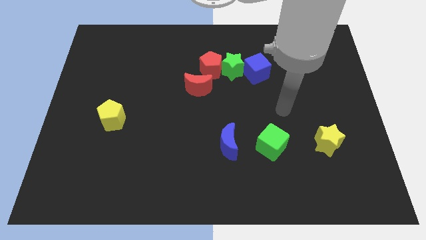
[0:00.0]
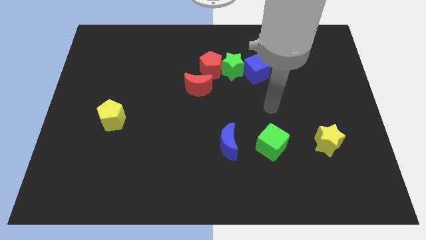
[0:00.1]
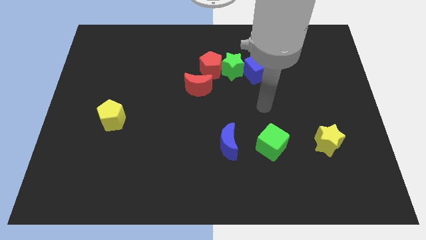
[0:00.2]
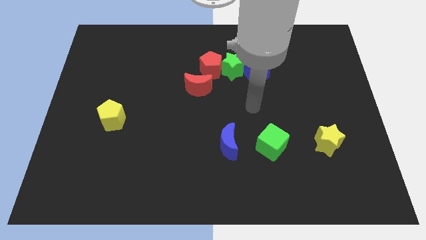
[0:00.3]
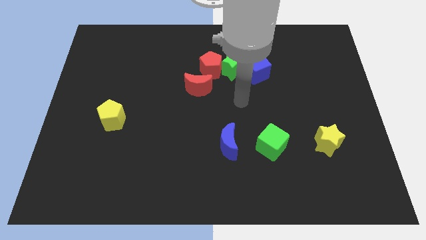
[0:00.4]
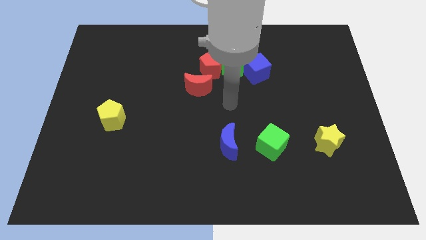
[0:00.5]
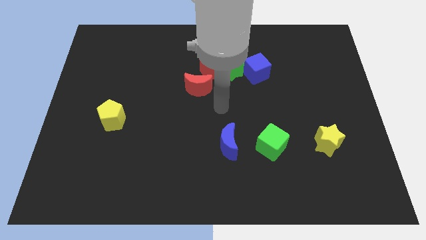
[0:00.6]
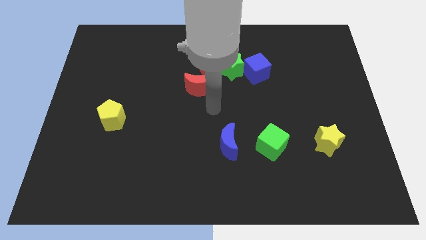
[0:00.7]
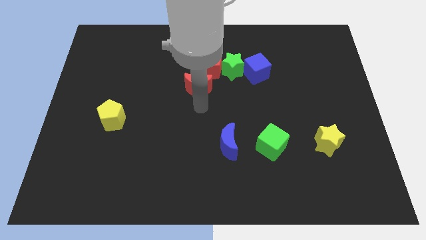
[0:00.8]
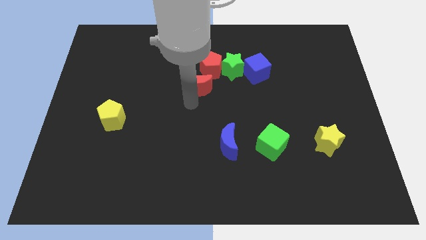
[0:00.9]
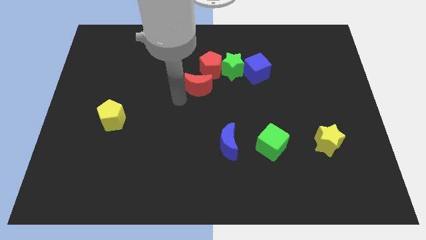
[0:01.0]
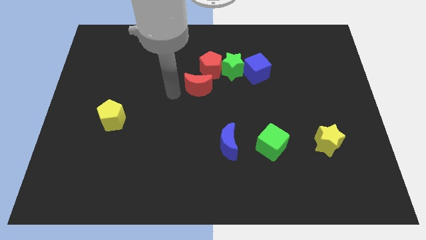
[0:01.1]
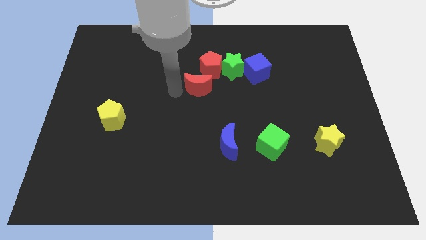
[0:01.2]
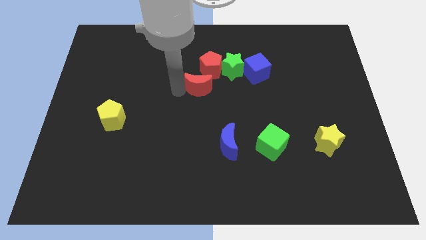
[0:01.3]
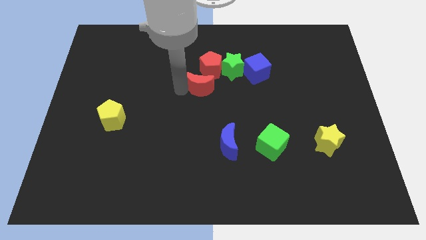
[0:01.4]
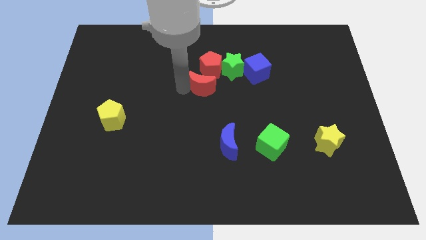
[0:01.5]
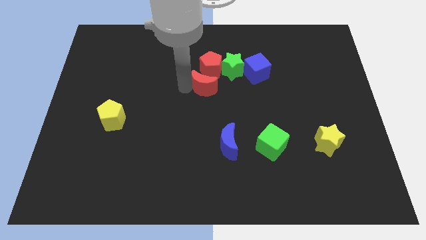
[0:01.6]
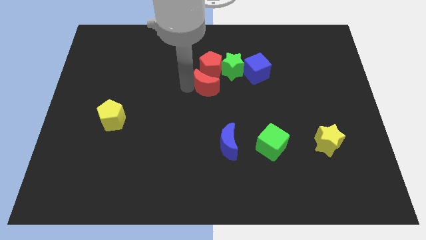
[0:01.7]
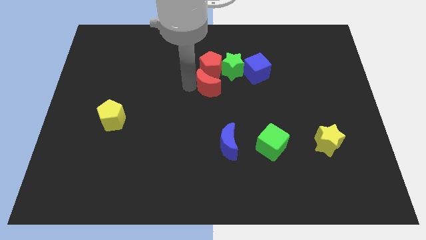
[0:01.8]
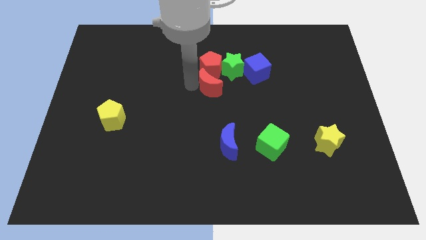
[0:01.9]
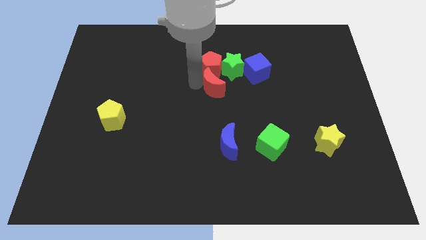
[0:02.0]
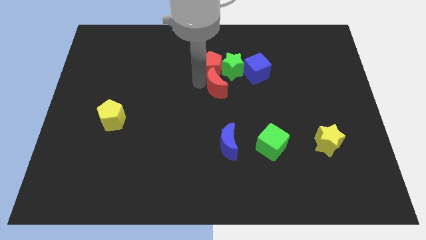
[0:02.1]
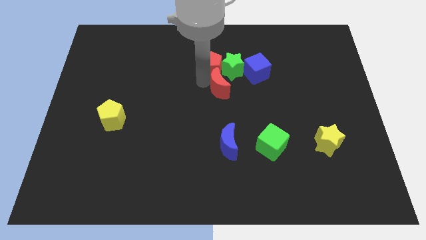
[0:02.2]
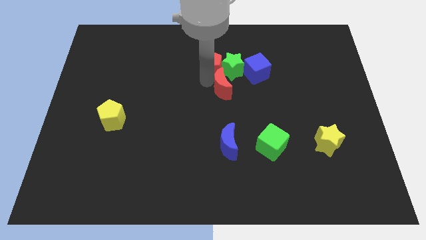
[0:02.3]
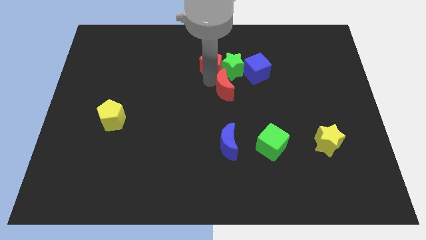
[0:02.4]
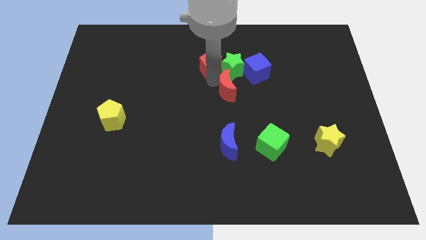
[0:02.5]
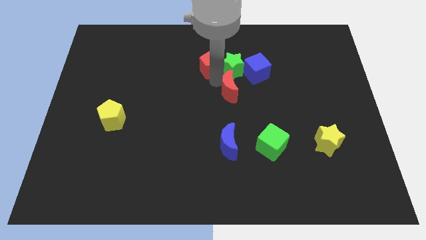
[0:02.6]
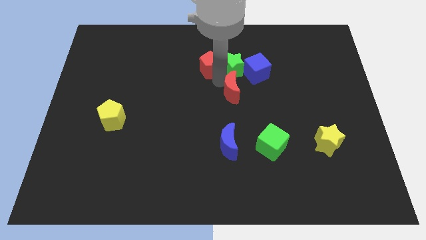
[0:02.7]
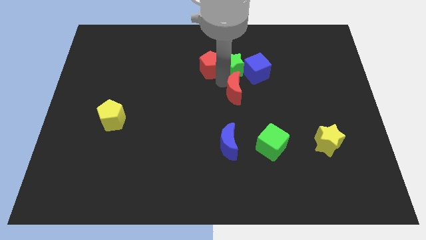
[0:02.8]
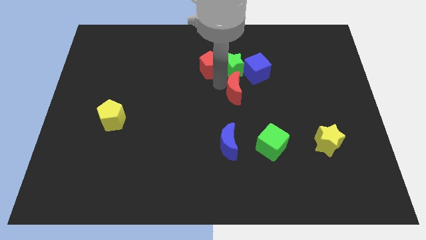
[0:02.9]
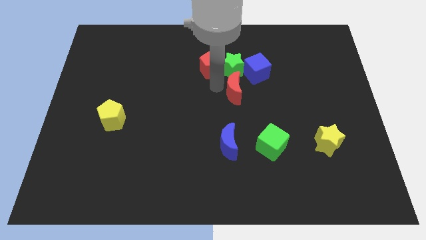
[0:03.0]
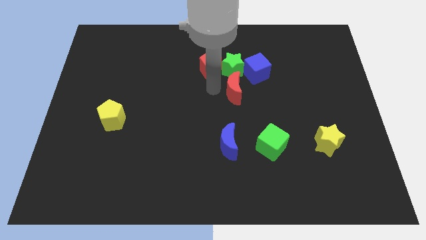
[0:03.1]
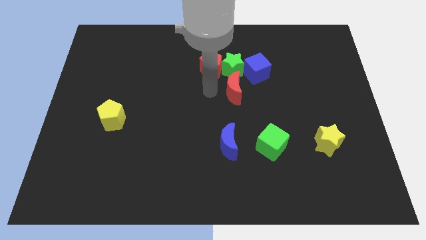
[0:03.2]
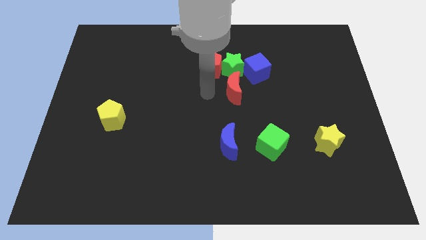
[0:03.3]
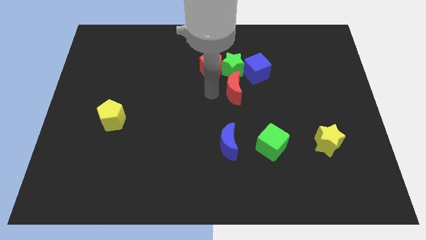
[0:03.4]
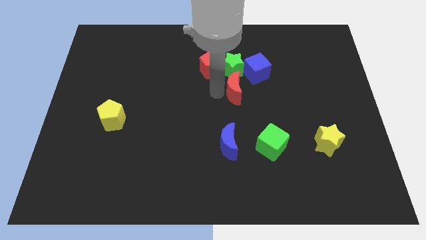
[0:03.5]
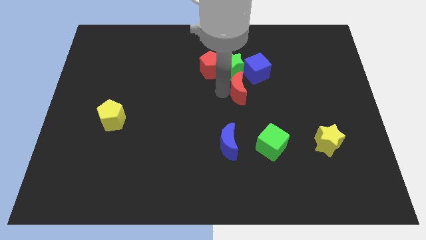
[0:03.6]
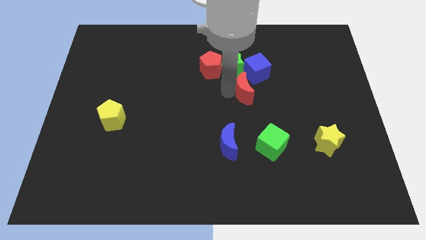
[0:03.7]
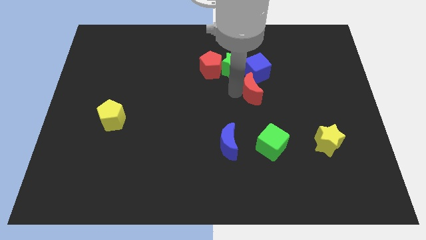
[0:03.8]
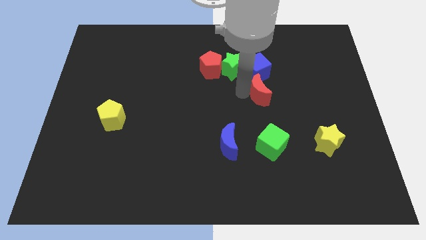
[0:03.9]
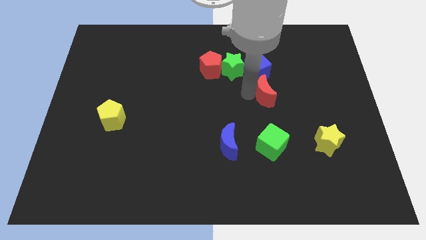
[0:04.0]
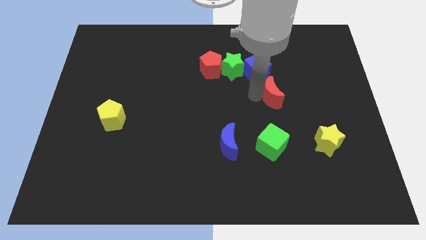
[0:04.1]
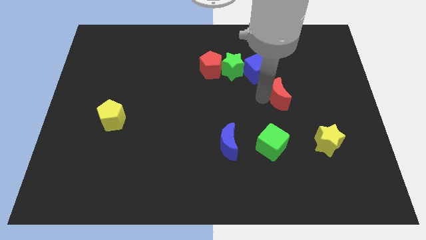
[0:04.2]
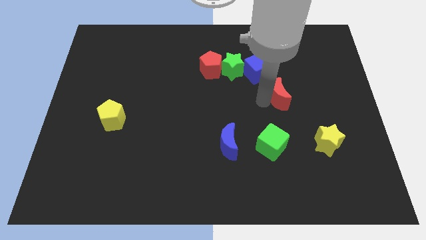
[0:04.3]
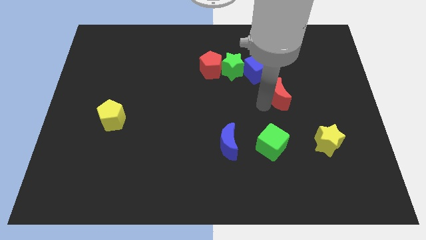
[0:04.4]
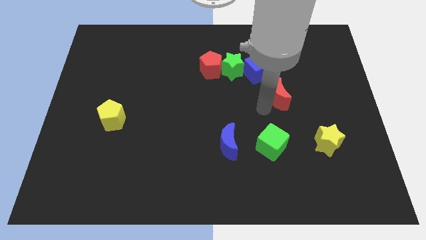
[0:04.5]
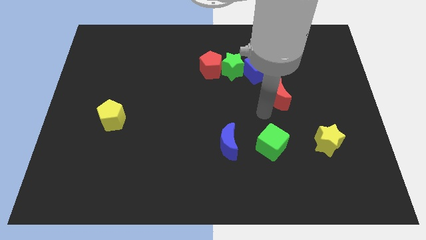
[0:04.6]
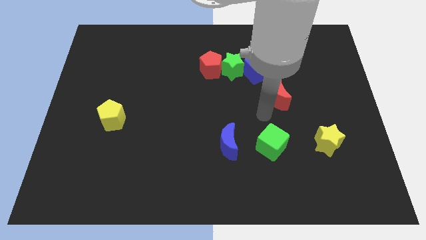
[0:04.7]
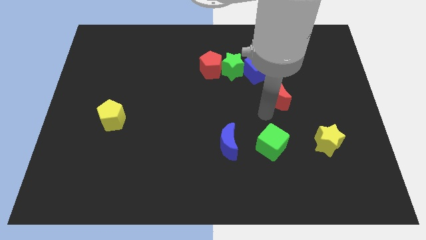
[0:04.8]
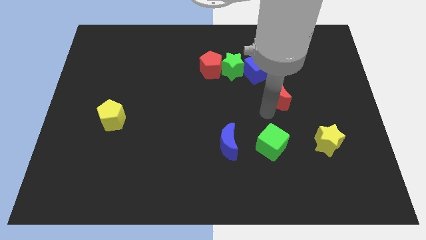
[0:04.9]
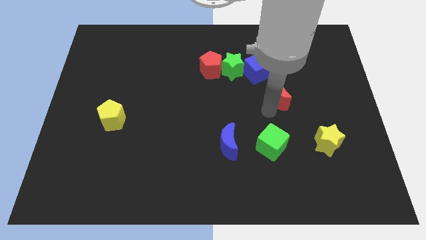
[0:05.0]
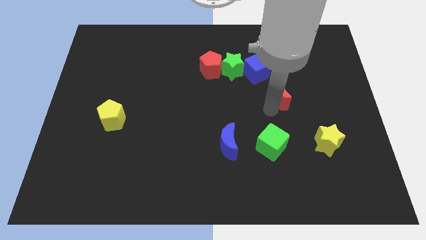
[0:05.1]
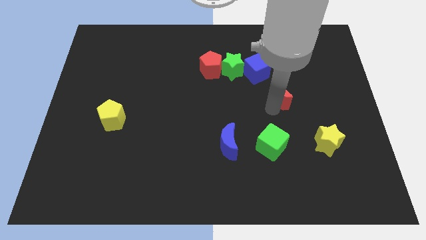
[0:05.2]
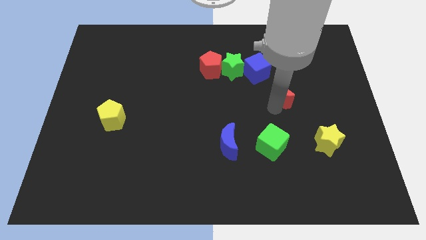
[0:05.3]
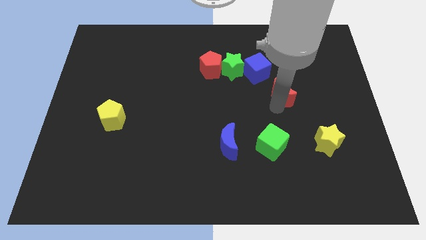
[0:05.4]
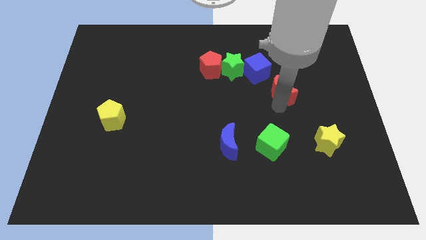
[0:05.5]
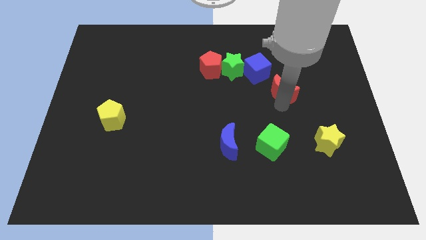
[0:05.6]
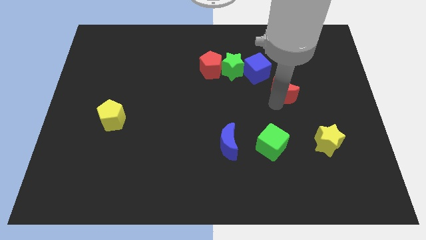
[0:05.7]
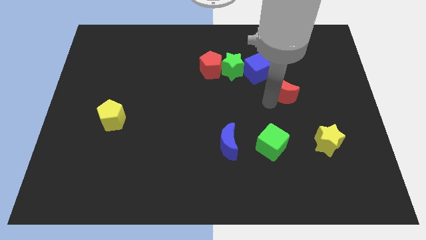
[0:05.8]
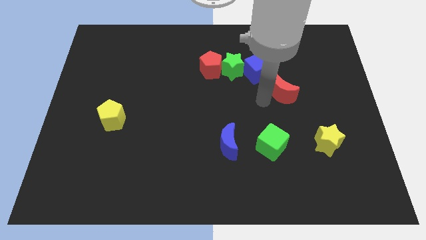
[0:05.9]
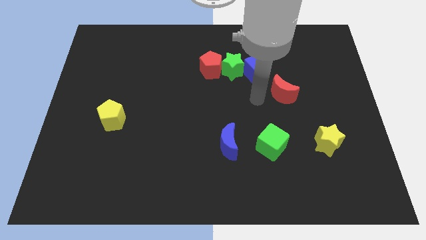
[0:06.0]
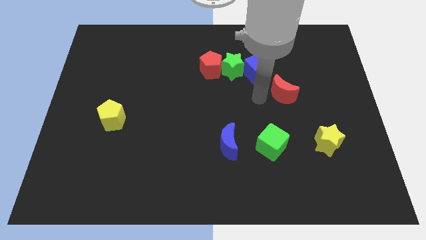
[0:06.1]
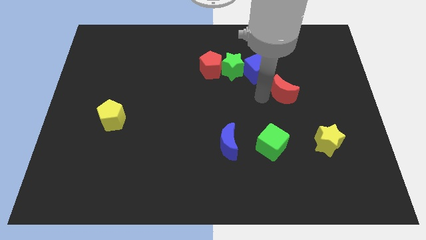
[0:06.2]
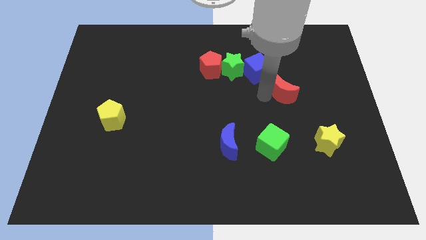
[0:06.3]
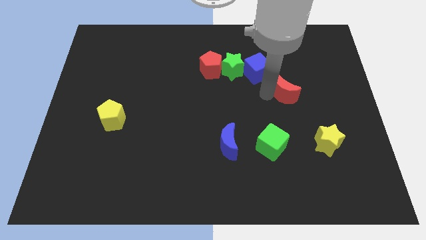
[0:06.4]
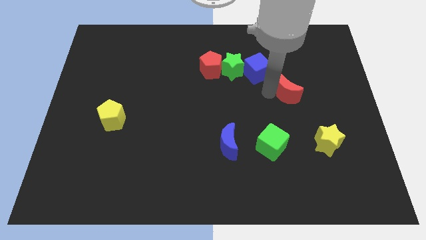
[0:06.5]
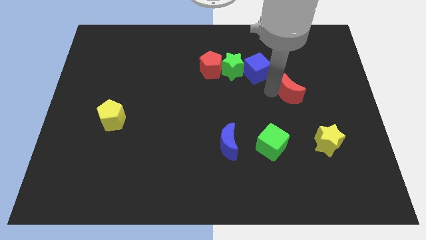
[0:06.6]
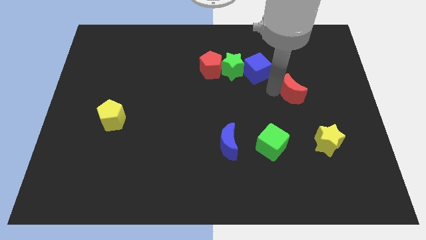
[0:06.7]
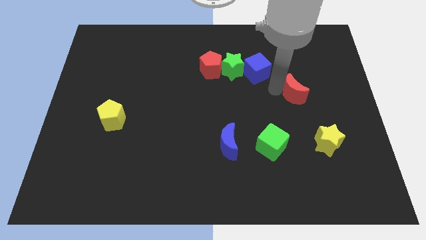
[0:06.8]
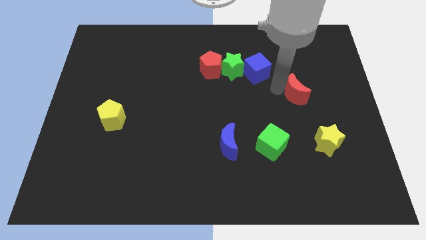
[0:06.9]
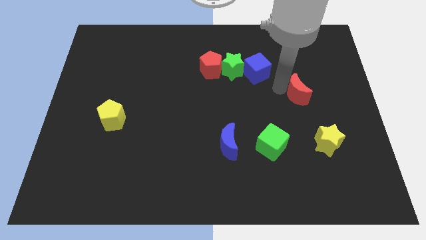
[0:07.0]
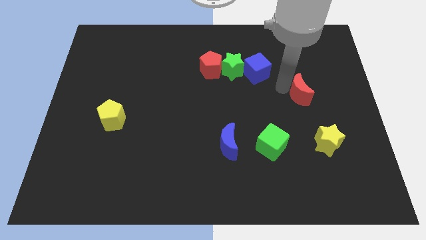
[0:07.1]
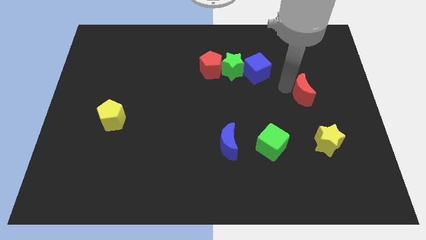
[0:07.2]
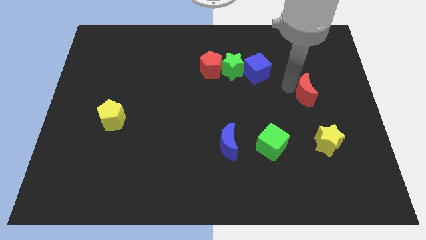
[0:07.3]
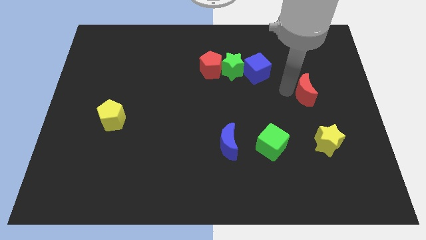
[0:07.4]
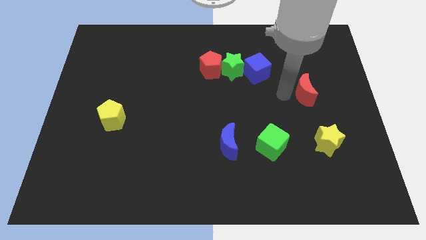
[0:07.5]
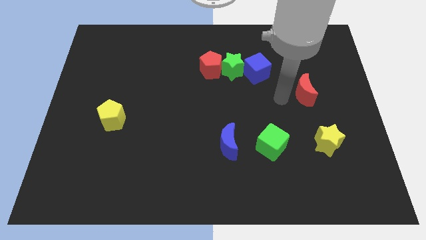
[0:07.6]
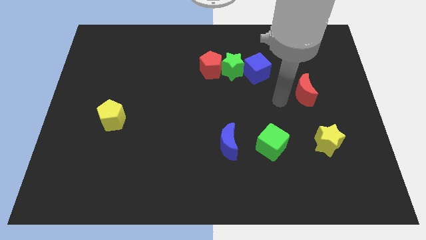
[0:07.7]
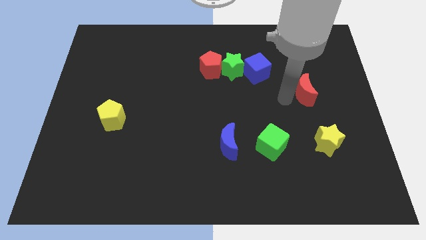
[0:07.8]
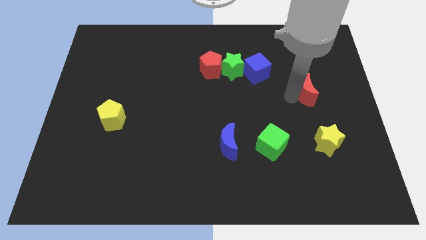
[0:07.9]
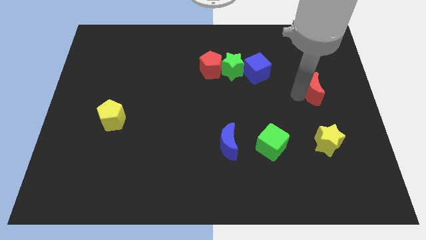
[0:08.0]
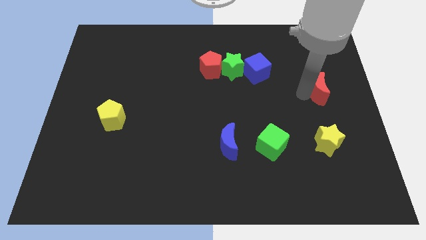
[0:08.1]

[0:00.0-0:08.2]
put the red moon to the right side of the board
